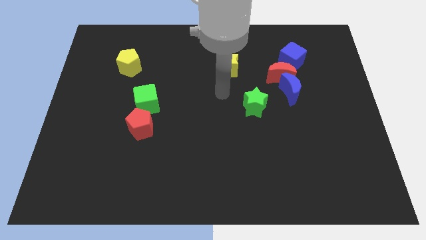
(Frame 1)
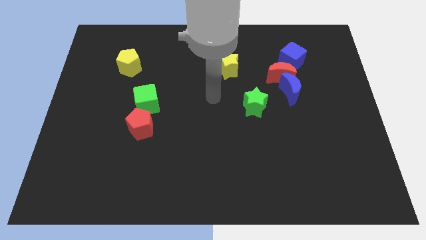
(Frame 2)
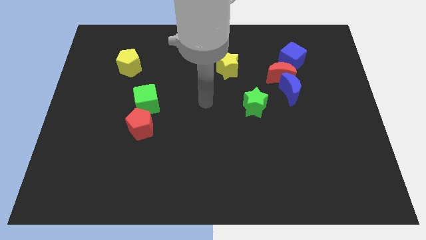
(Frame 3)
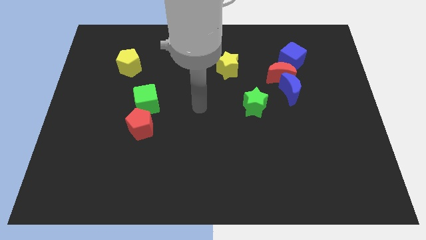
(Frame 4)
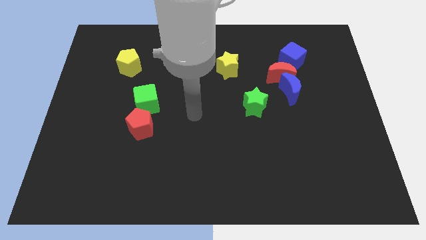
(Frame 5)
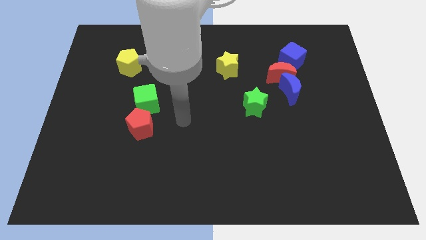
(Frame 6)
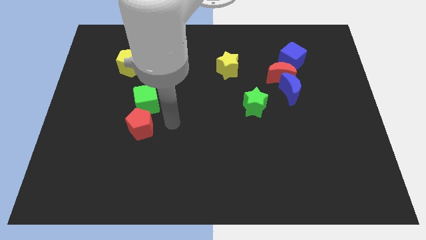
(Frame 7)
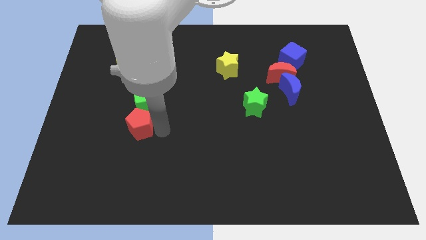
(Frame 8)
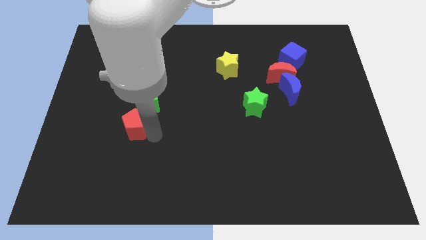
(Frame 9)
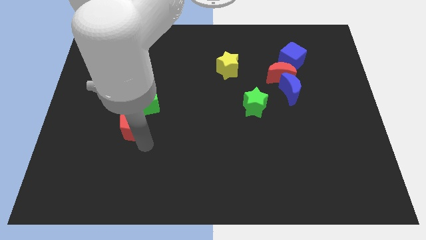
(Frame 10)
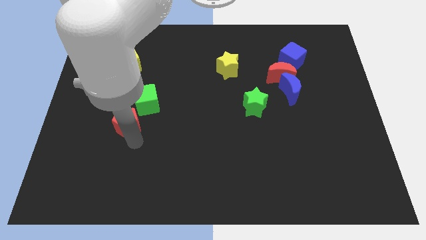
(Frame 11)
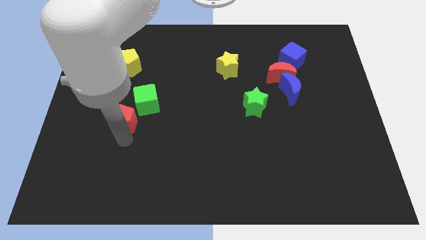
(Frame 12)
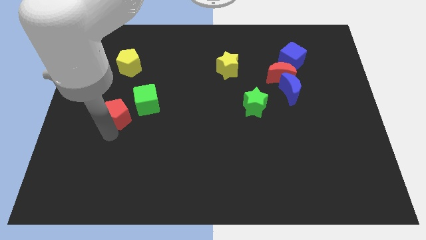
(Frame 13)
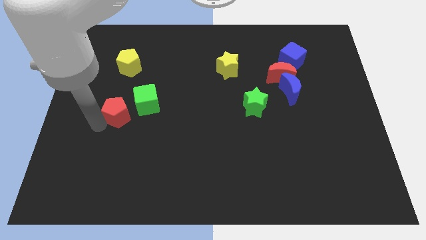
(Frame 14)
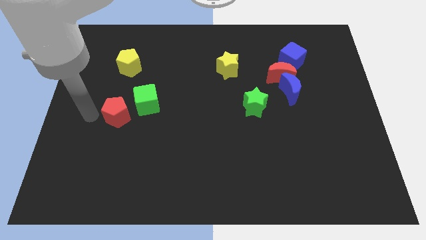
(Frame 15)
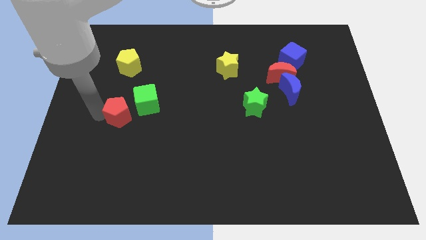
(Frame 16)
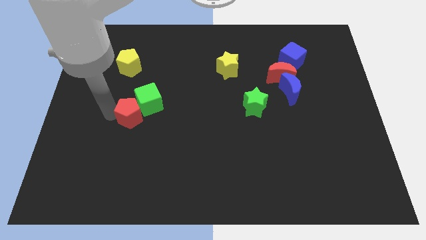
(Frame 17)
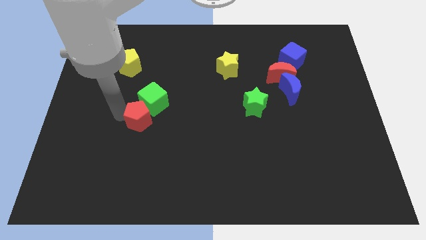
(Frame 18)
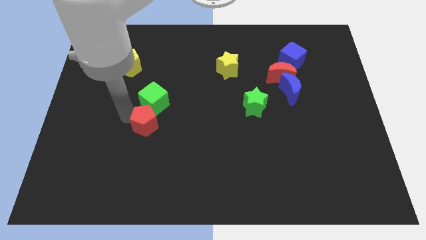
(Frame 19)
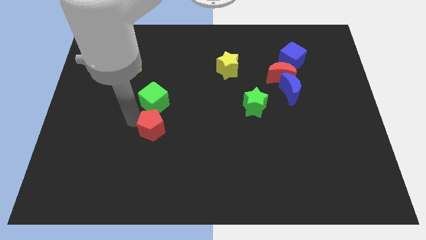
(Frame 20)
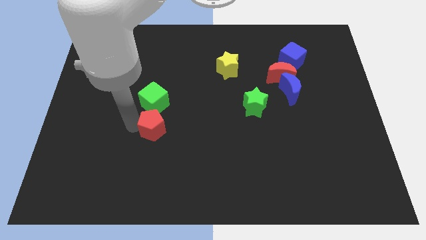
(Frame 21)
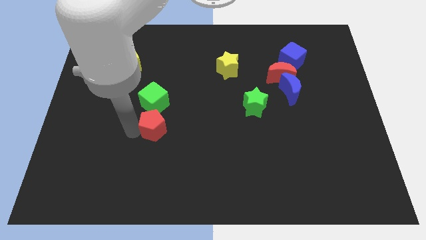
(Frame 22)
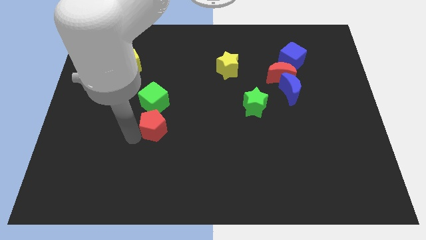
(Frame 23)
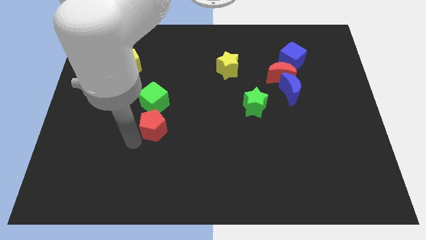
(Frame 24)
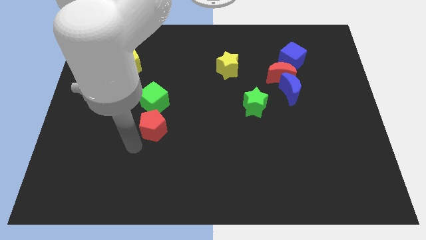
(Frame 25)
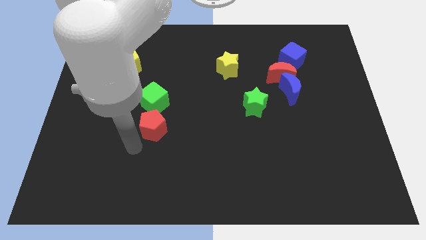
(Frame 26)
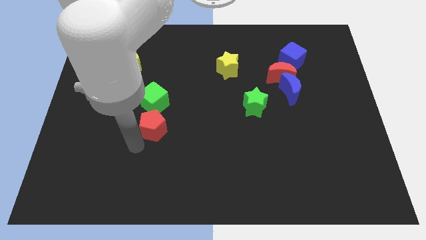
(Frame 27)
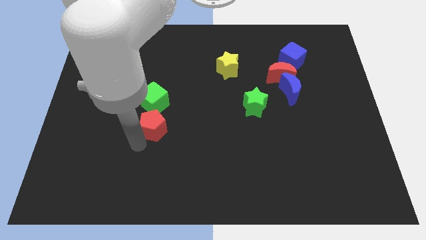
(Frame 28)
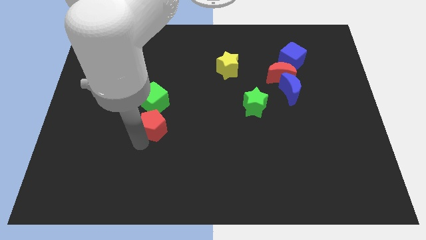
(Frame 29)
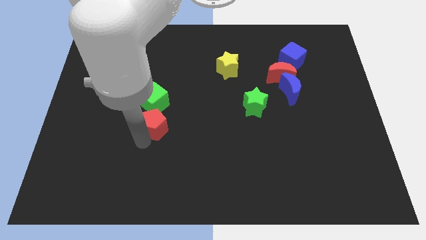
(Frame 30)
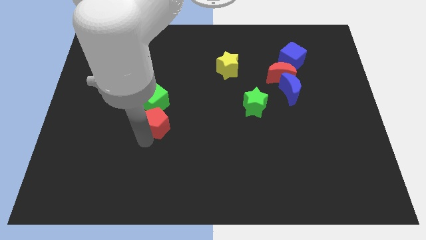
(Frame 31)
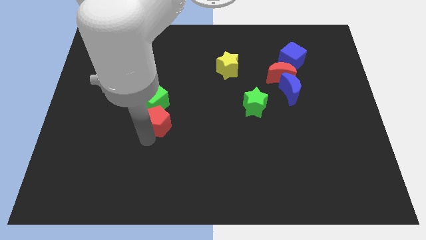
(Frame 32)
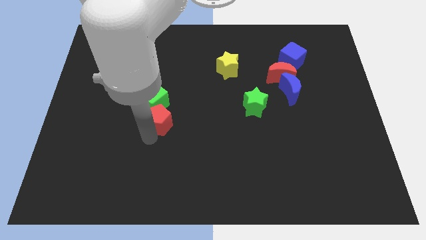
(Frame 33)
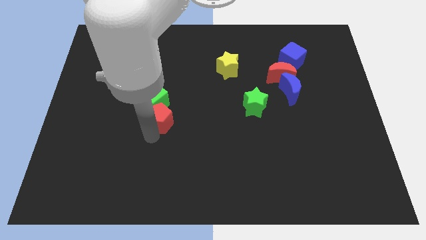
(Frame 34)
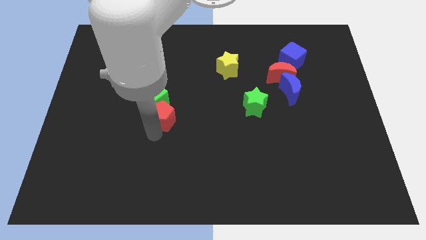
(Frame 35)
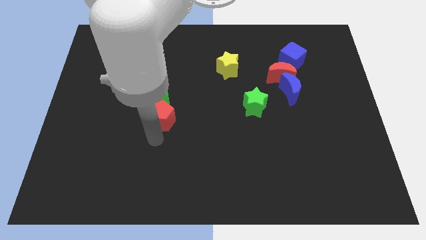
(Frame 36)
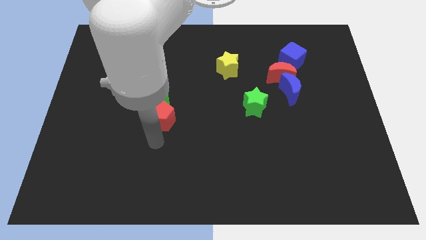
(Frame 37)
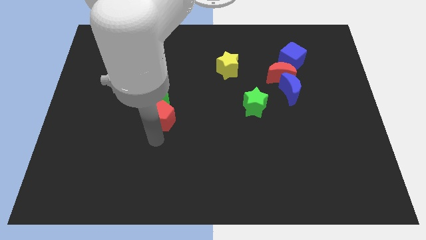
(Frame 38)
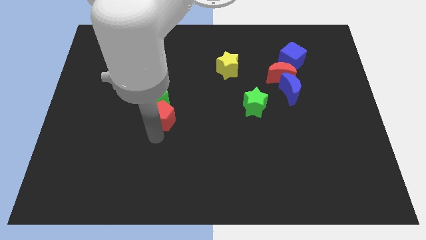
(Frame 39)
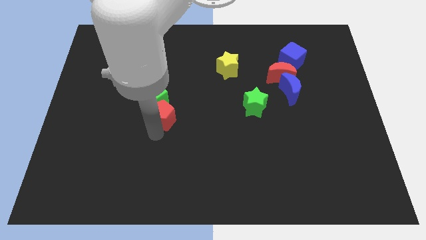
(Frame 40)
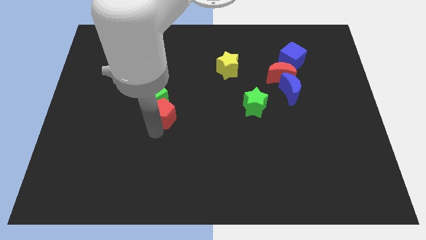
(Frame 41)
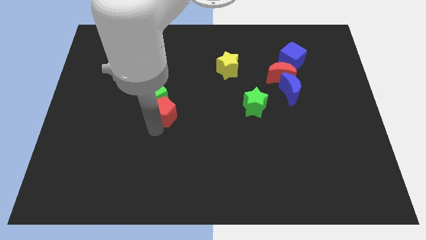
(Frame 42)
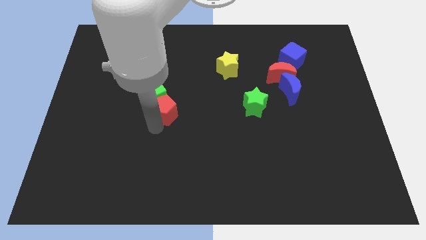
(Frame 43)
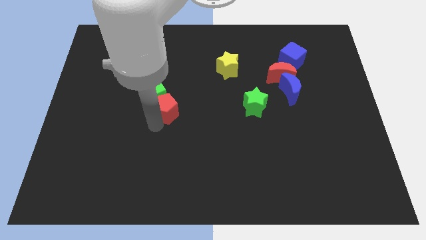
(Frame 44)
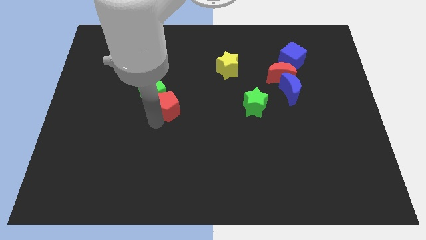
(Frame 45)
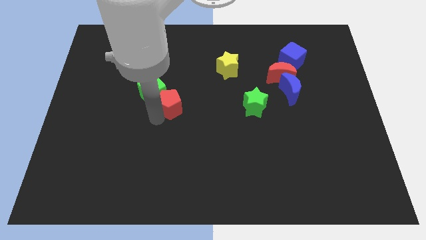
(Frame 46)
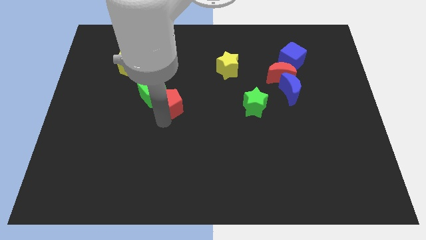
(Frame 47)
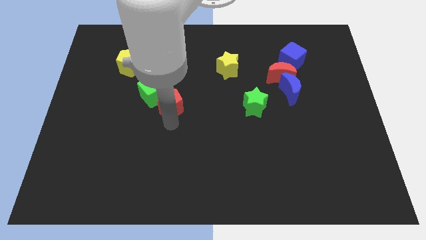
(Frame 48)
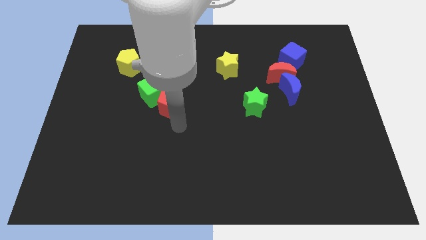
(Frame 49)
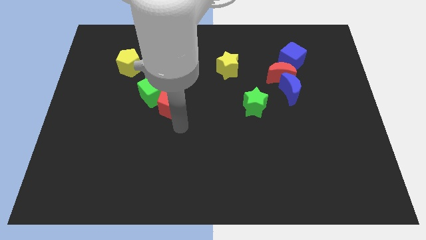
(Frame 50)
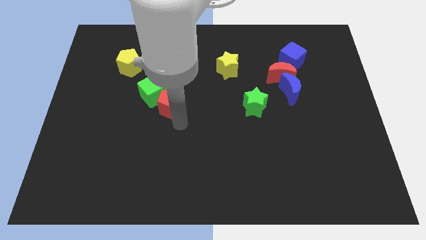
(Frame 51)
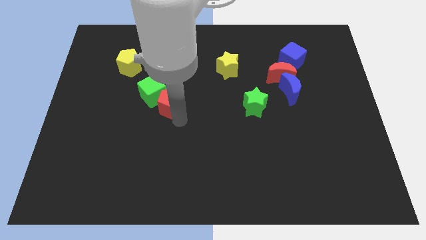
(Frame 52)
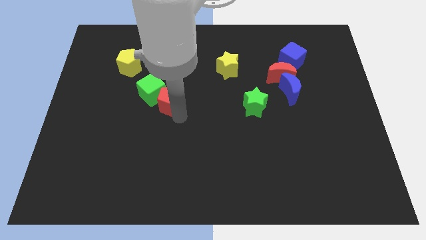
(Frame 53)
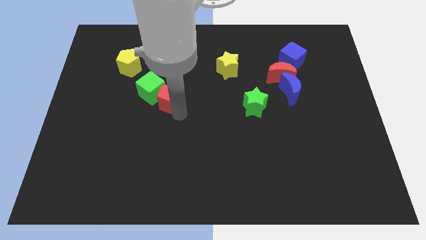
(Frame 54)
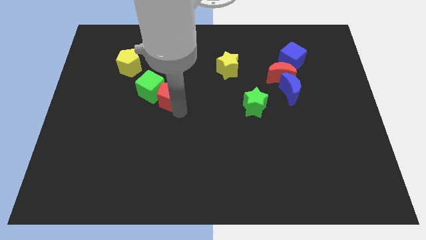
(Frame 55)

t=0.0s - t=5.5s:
move the red pentagon upwards a little

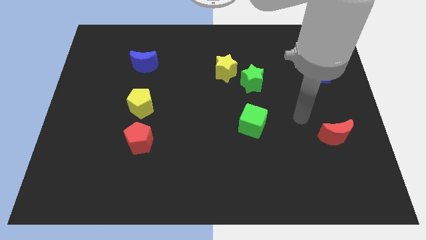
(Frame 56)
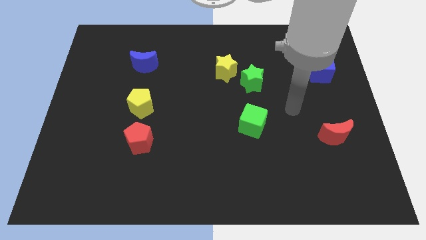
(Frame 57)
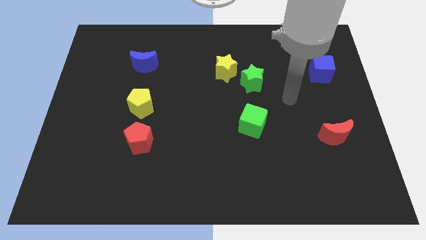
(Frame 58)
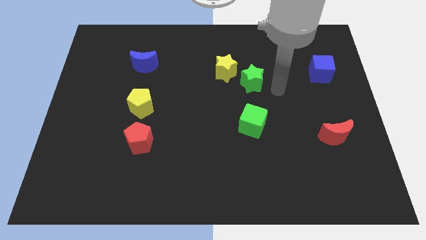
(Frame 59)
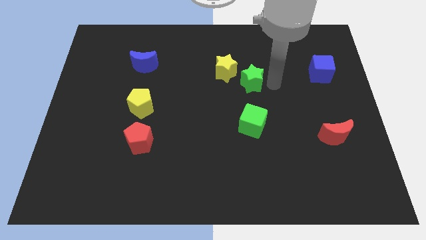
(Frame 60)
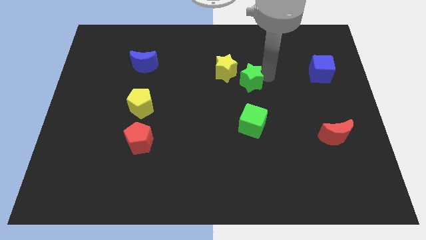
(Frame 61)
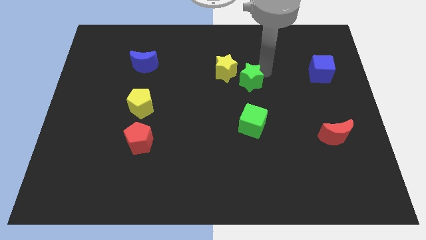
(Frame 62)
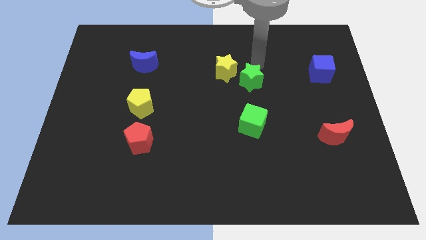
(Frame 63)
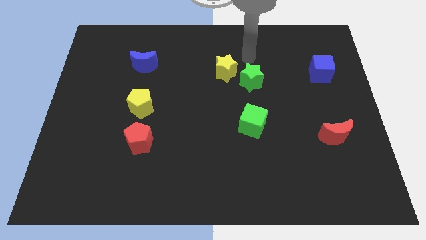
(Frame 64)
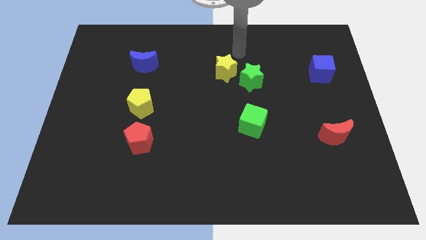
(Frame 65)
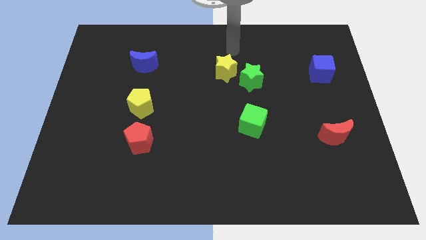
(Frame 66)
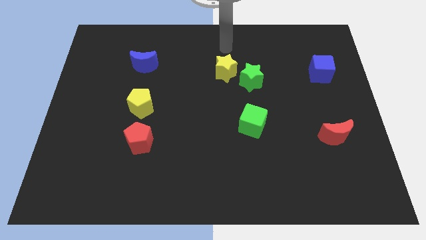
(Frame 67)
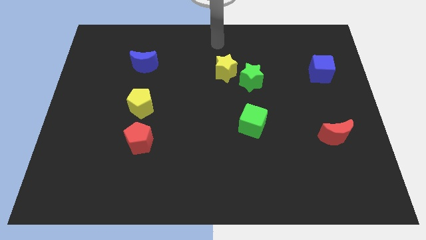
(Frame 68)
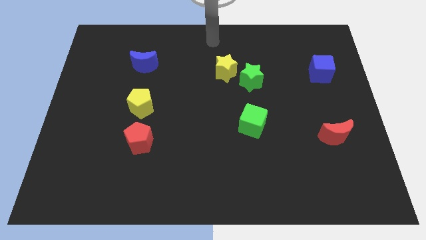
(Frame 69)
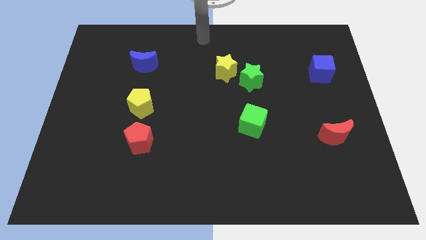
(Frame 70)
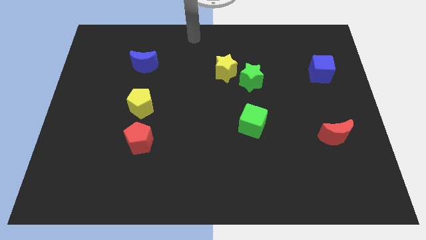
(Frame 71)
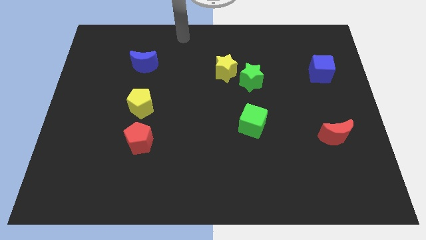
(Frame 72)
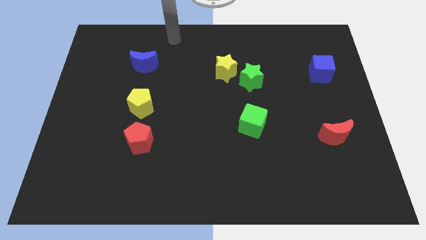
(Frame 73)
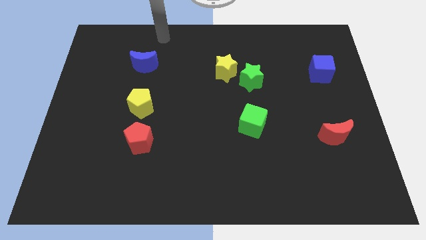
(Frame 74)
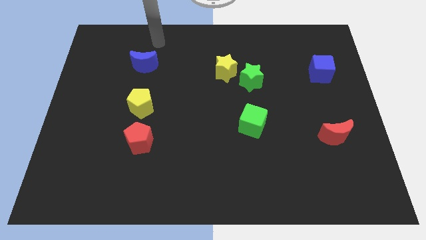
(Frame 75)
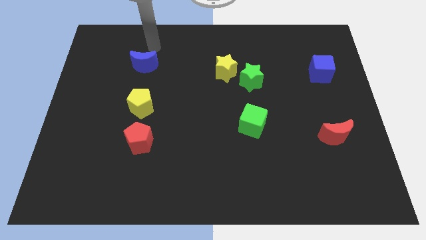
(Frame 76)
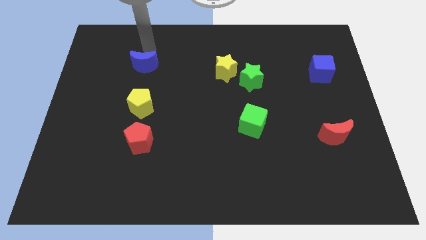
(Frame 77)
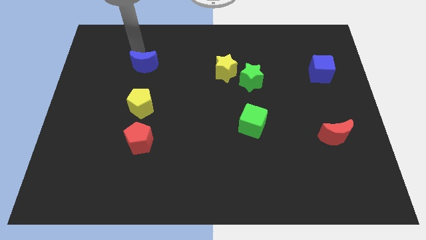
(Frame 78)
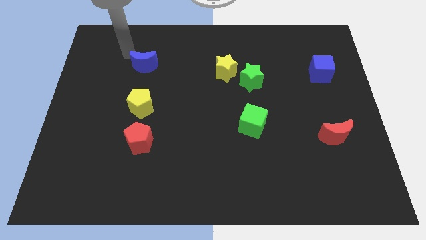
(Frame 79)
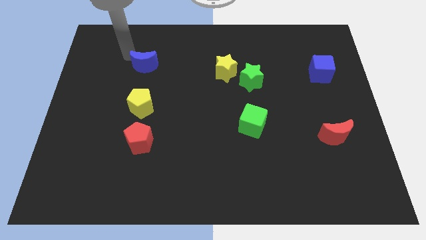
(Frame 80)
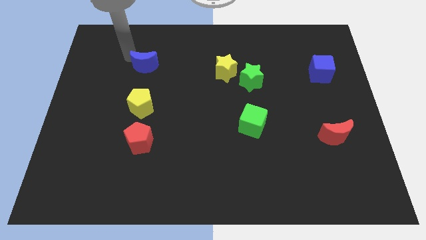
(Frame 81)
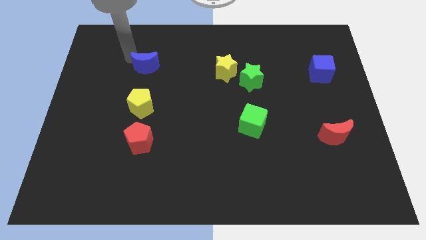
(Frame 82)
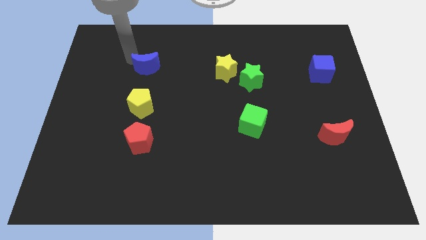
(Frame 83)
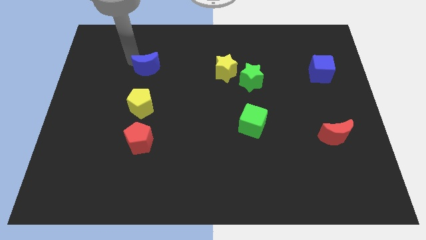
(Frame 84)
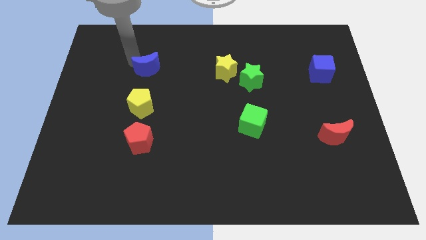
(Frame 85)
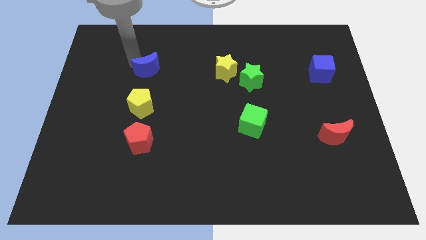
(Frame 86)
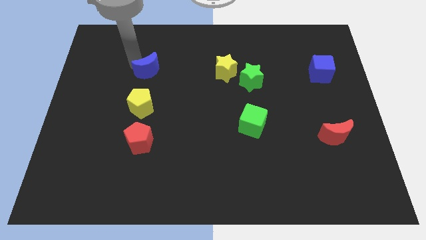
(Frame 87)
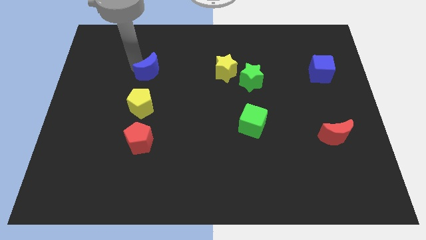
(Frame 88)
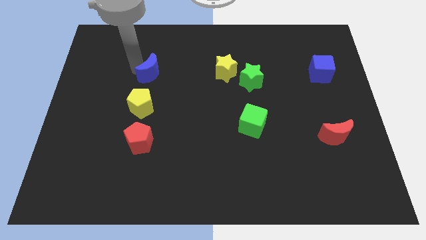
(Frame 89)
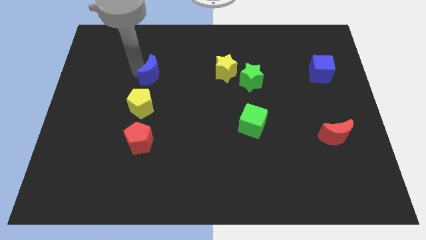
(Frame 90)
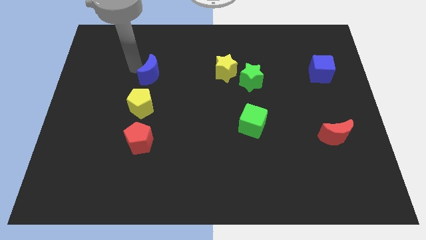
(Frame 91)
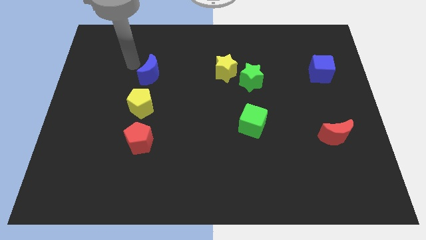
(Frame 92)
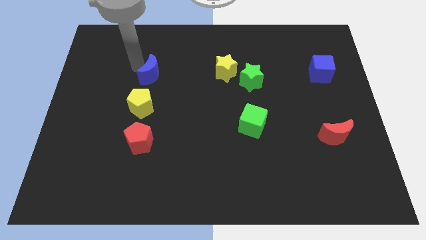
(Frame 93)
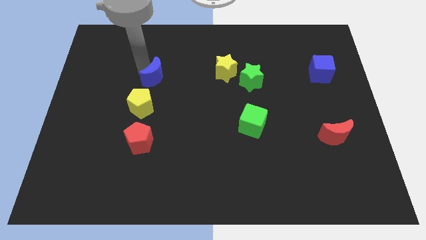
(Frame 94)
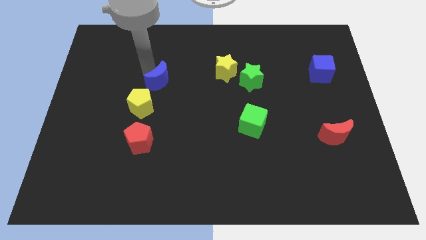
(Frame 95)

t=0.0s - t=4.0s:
move the blue moon down and to the right diagonally a little
